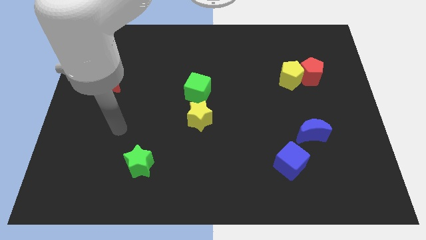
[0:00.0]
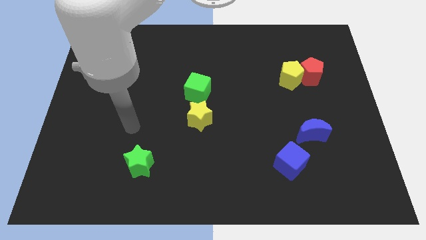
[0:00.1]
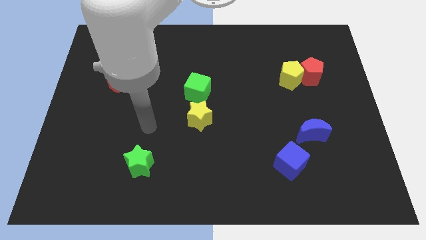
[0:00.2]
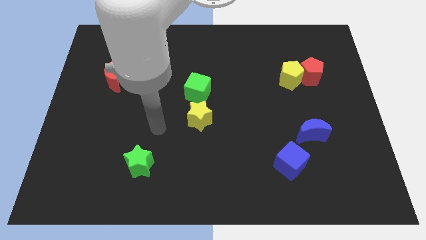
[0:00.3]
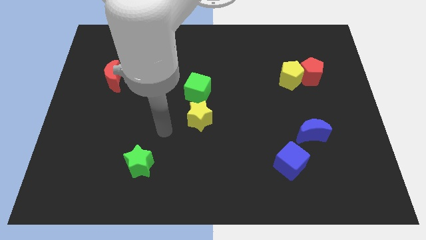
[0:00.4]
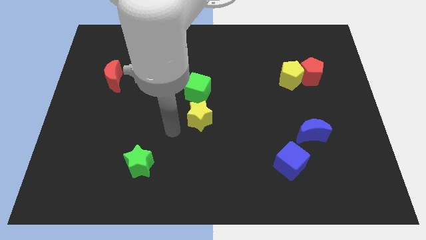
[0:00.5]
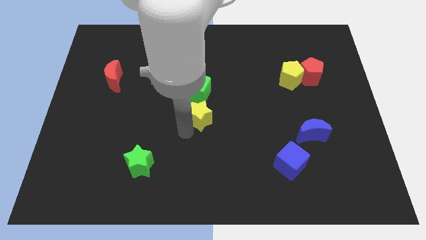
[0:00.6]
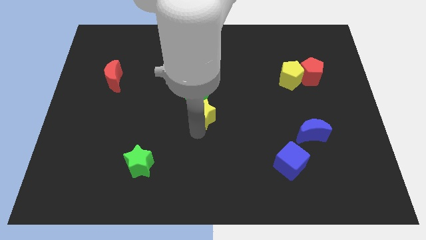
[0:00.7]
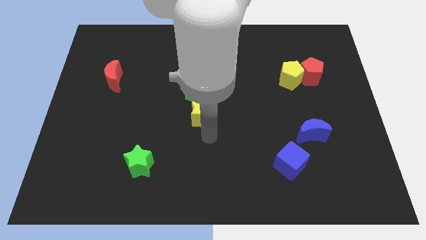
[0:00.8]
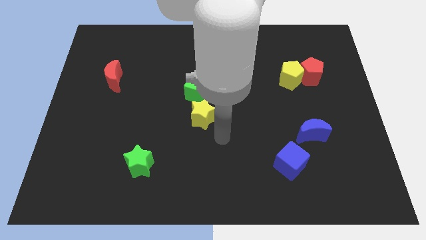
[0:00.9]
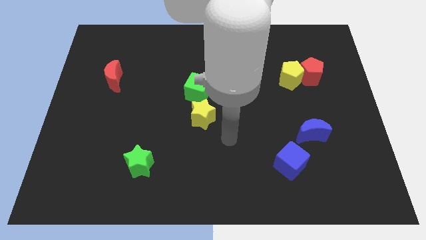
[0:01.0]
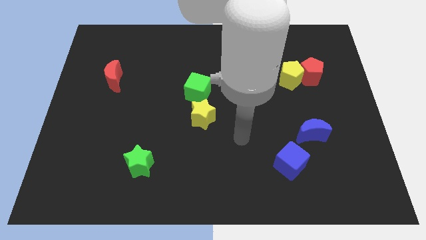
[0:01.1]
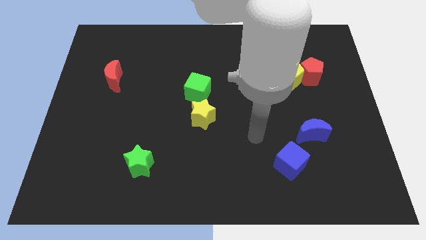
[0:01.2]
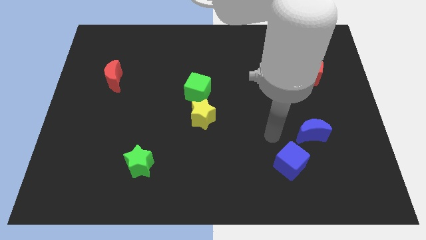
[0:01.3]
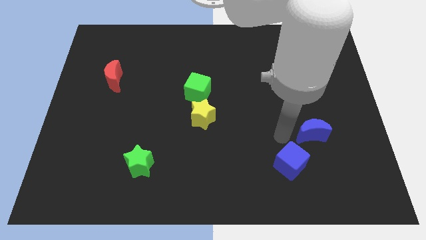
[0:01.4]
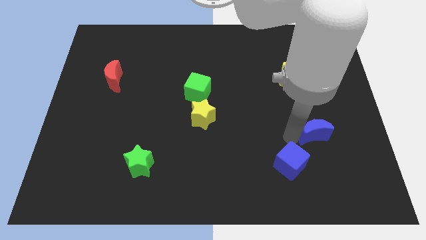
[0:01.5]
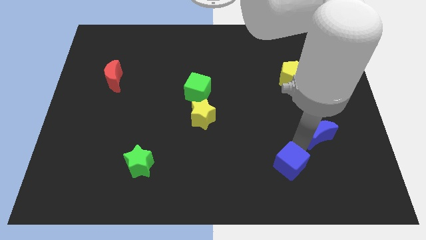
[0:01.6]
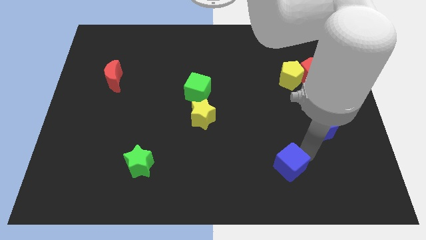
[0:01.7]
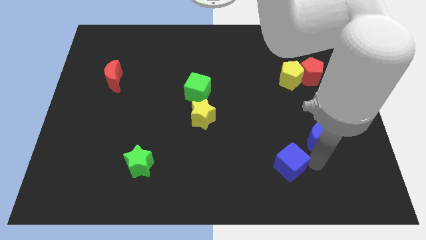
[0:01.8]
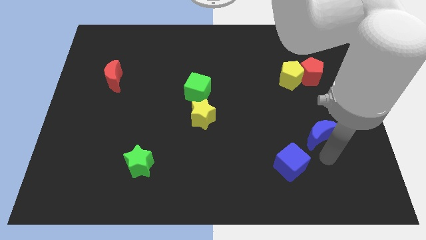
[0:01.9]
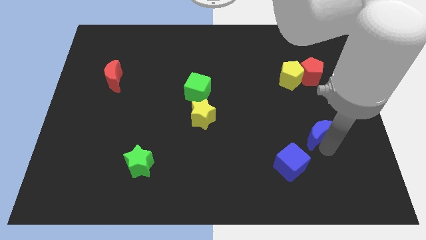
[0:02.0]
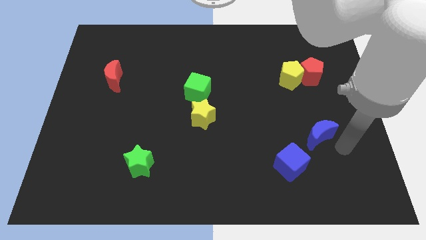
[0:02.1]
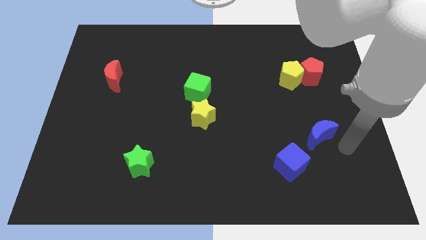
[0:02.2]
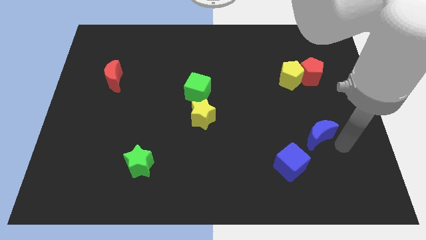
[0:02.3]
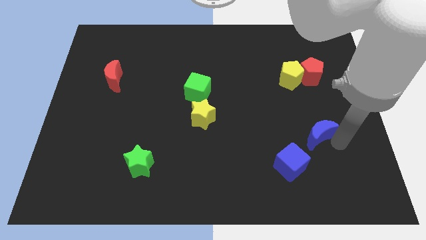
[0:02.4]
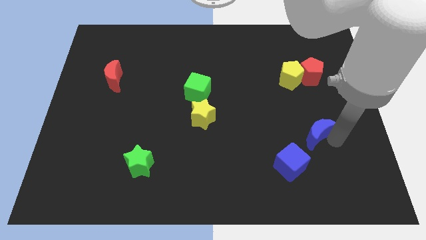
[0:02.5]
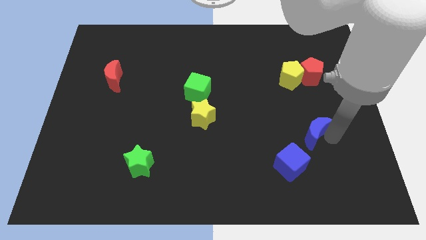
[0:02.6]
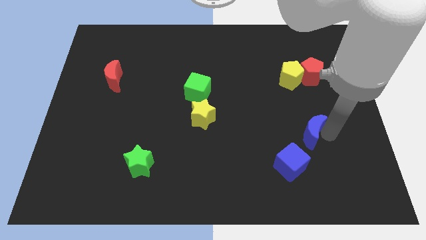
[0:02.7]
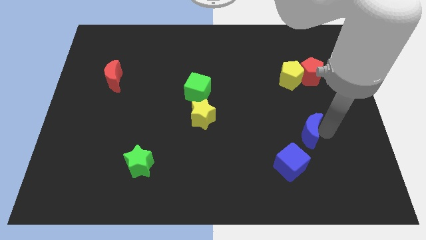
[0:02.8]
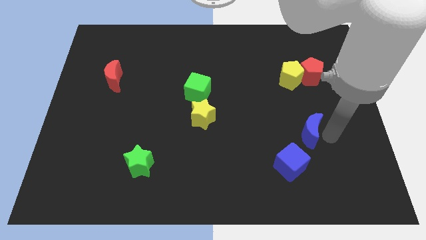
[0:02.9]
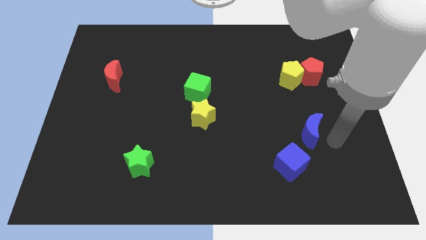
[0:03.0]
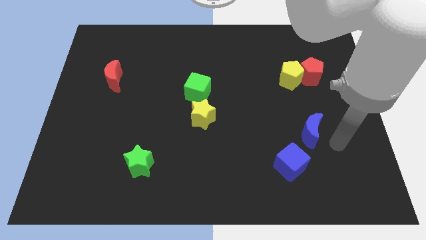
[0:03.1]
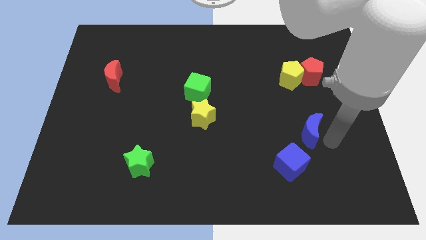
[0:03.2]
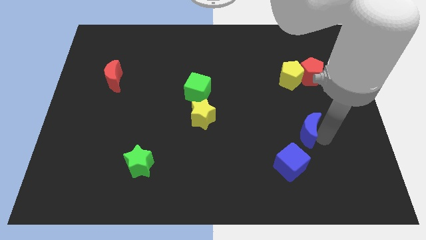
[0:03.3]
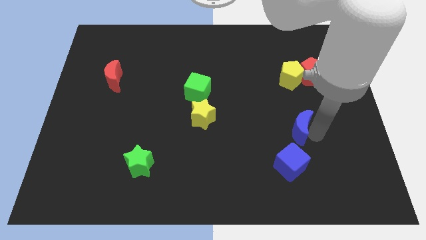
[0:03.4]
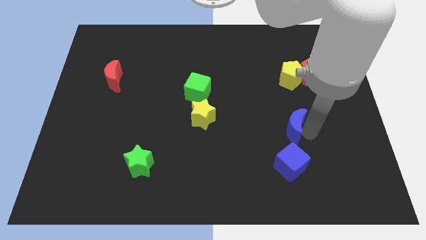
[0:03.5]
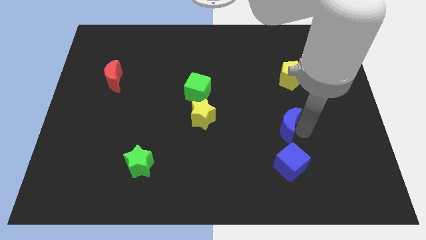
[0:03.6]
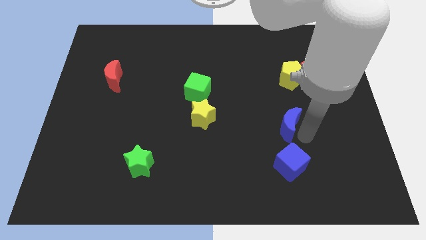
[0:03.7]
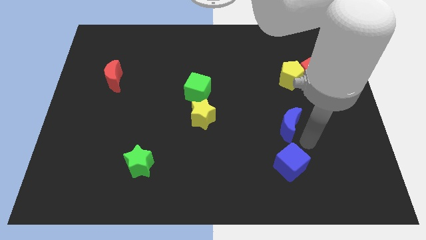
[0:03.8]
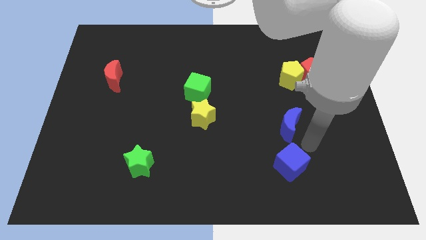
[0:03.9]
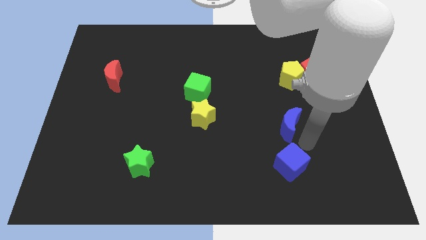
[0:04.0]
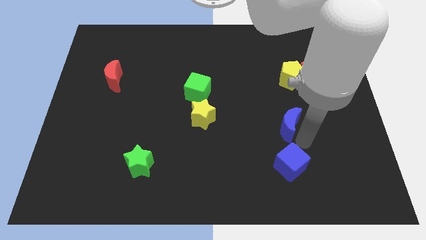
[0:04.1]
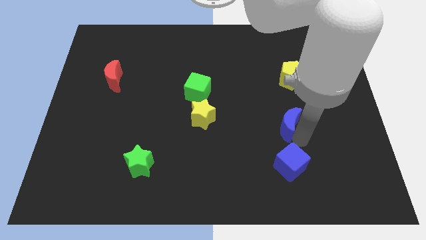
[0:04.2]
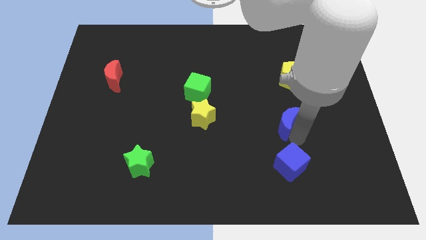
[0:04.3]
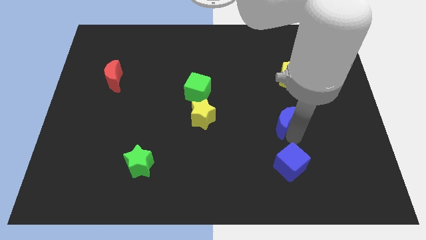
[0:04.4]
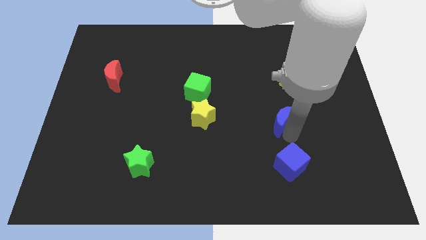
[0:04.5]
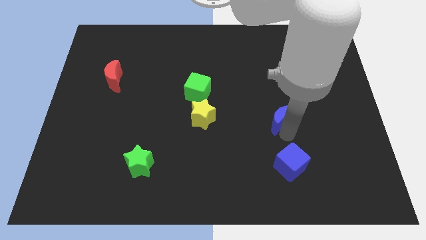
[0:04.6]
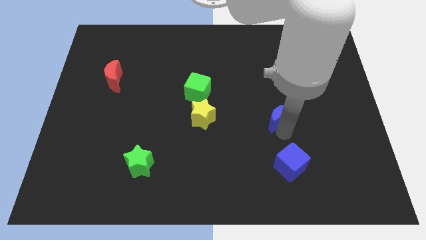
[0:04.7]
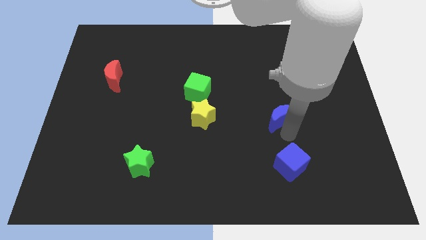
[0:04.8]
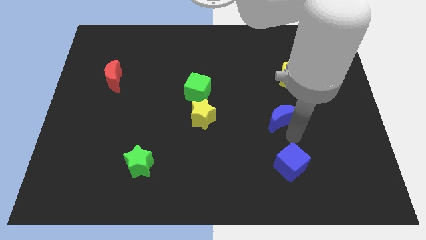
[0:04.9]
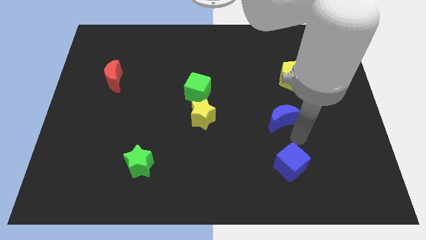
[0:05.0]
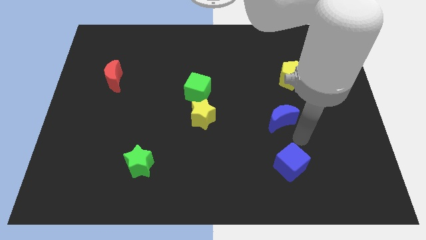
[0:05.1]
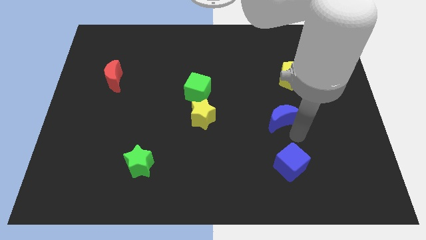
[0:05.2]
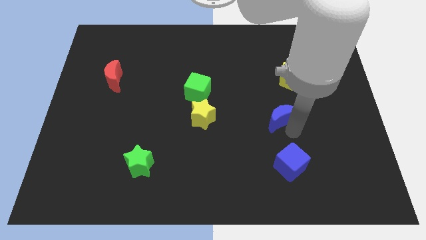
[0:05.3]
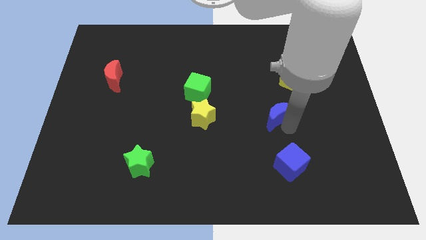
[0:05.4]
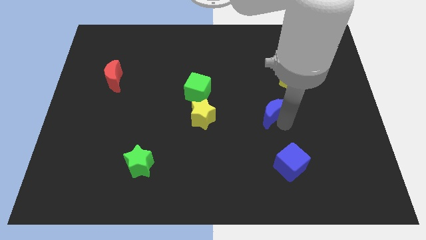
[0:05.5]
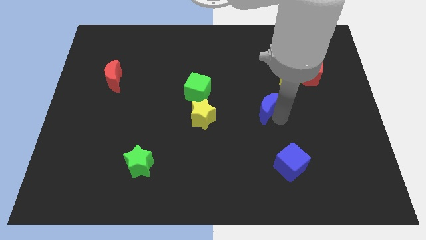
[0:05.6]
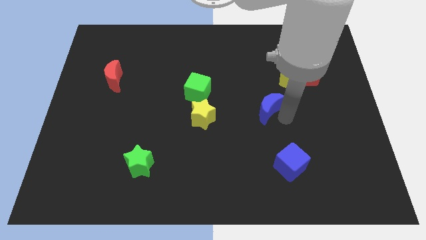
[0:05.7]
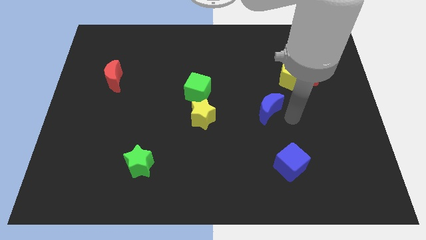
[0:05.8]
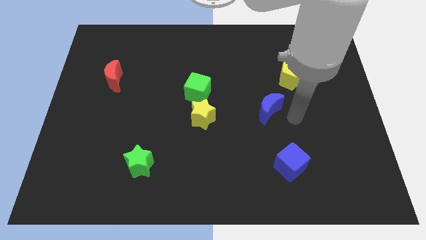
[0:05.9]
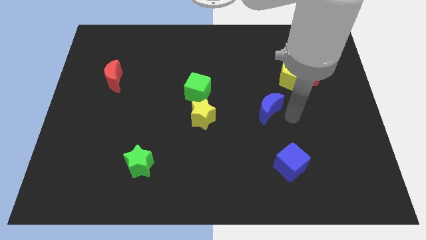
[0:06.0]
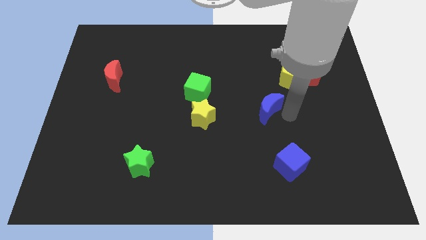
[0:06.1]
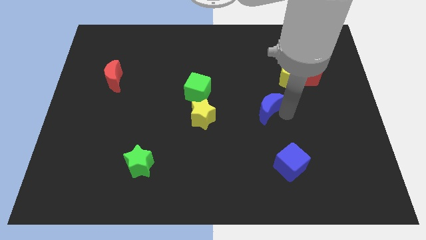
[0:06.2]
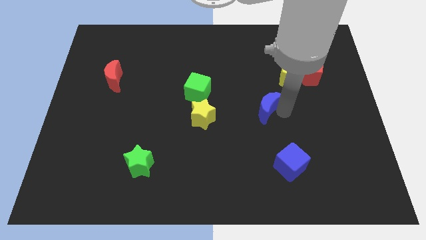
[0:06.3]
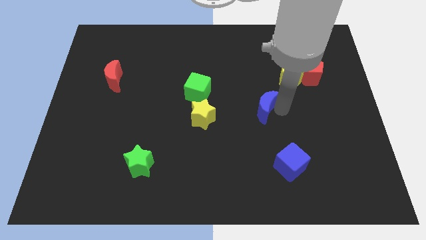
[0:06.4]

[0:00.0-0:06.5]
put the blue moon to the center
